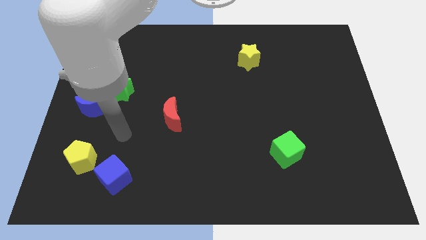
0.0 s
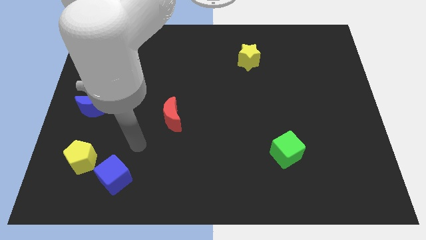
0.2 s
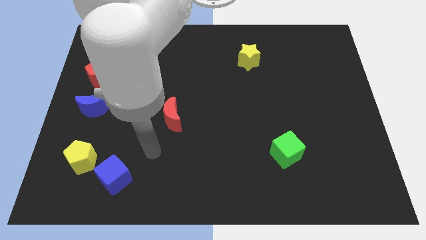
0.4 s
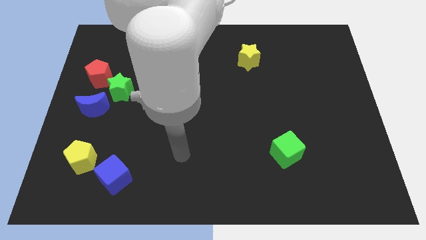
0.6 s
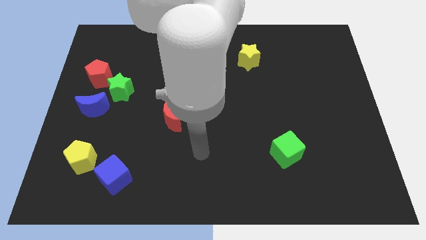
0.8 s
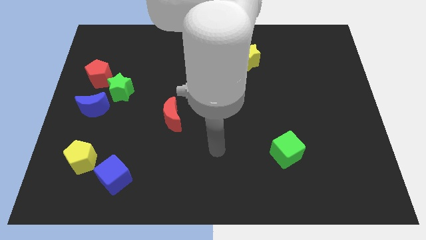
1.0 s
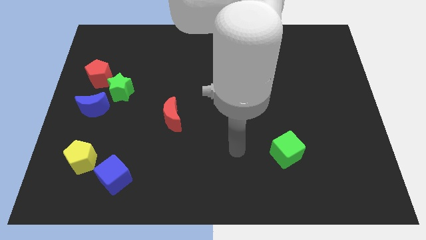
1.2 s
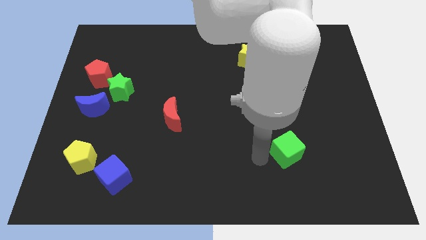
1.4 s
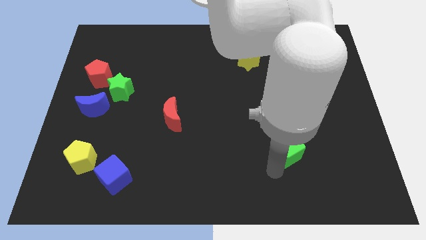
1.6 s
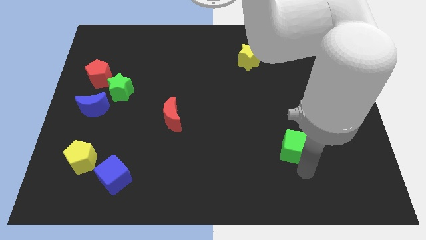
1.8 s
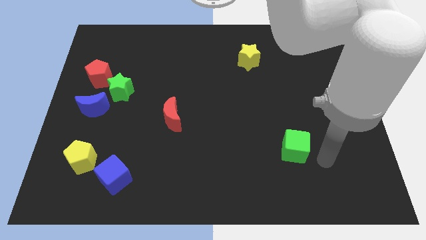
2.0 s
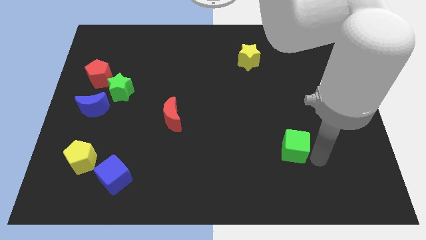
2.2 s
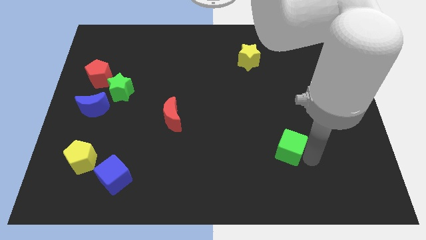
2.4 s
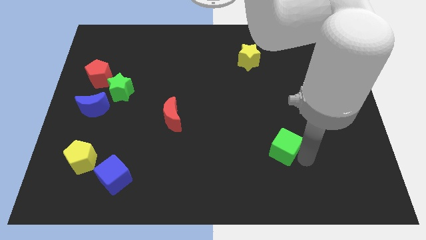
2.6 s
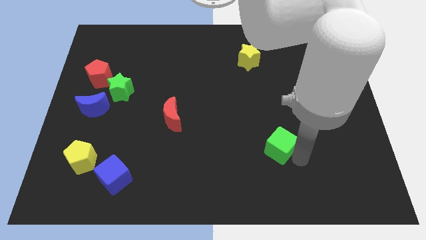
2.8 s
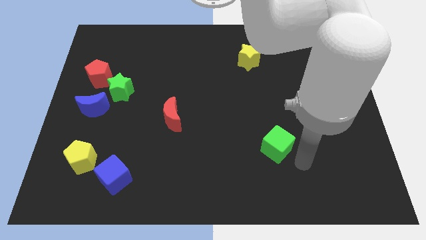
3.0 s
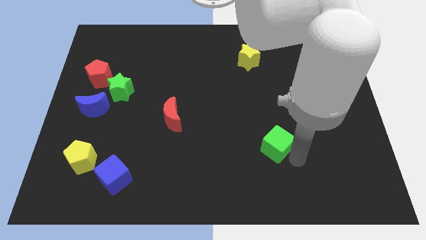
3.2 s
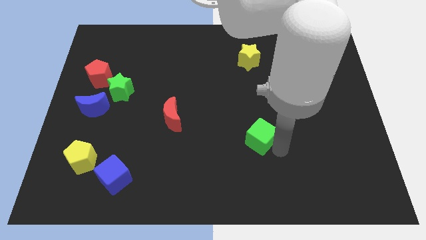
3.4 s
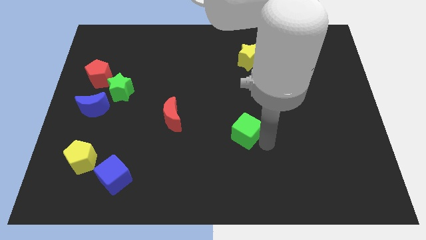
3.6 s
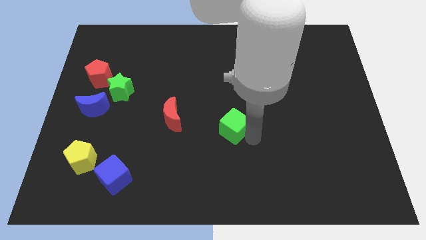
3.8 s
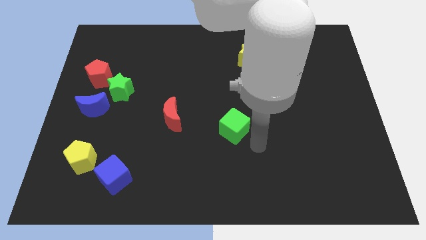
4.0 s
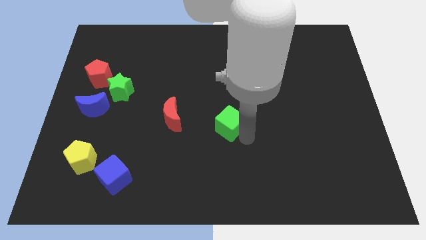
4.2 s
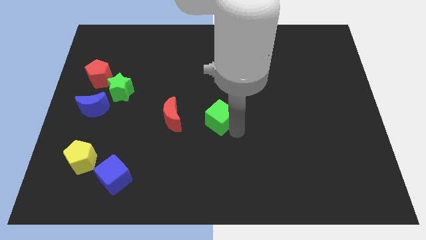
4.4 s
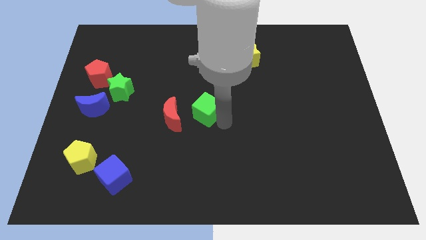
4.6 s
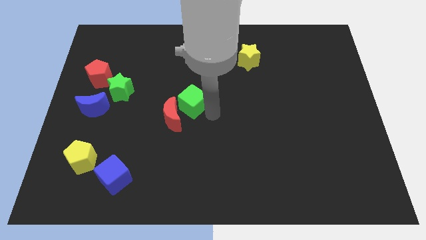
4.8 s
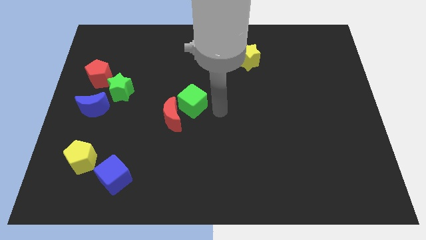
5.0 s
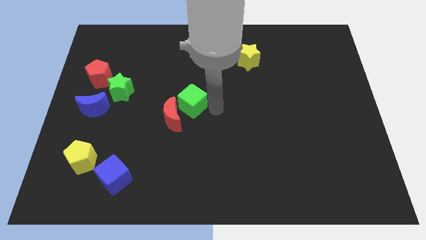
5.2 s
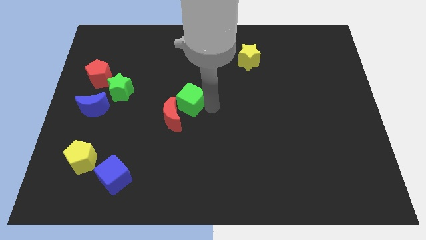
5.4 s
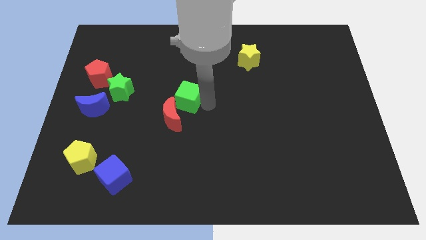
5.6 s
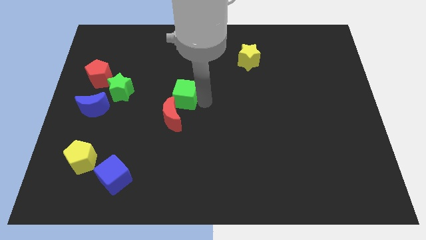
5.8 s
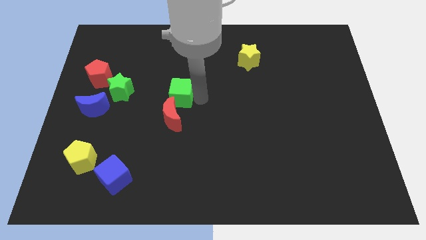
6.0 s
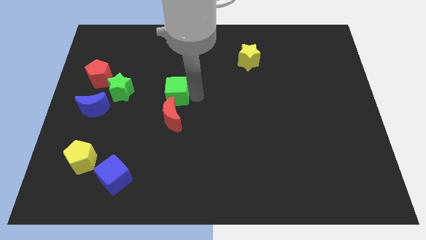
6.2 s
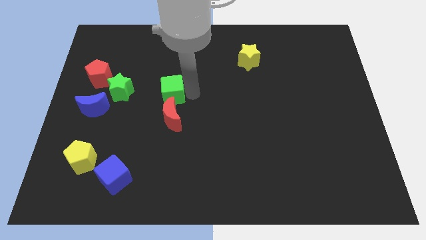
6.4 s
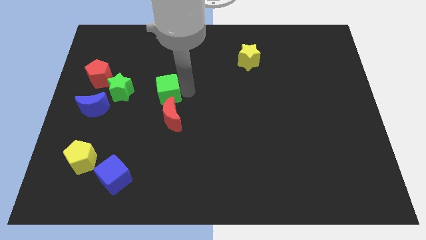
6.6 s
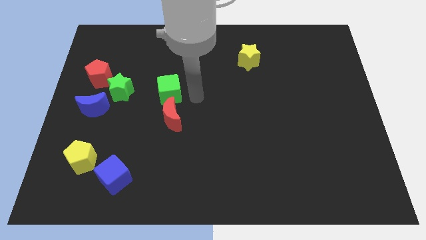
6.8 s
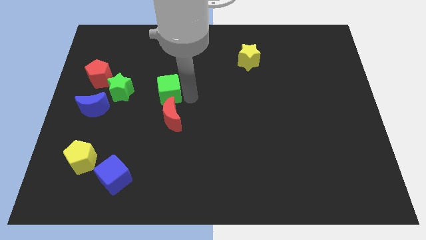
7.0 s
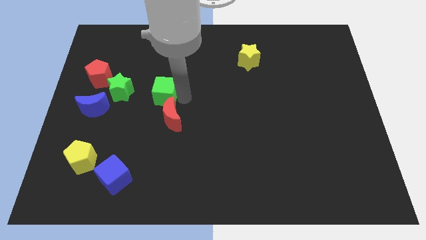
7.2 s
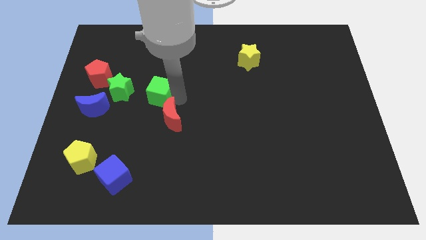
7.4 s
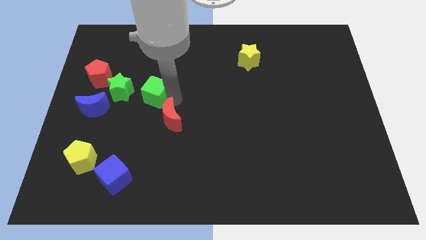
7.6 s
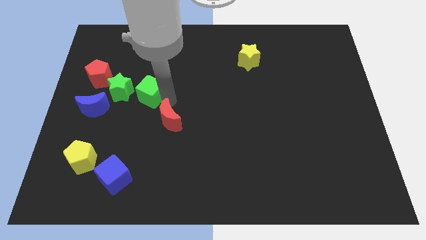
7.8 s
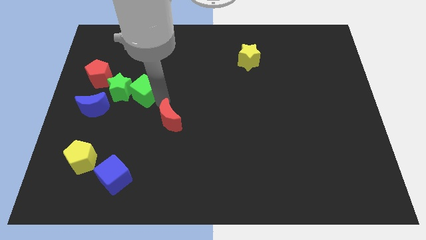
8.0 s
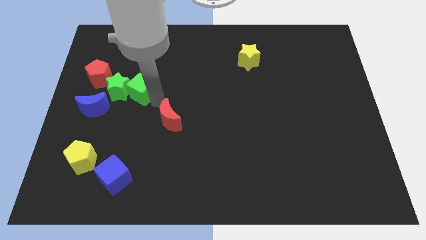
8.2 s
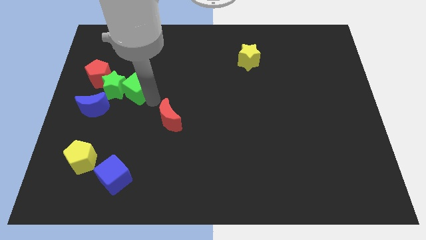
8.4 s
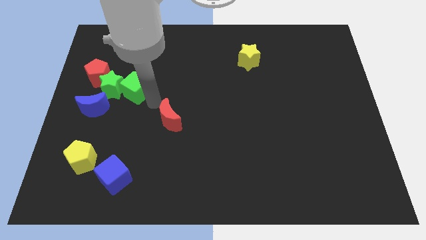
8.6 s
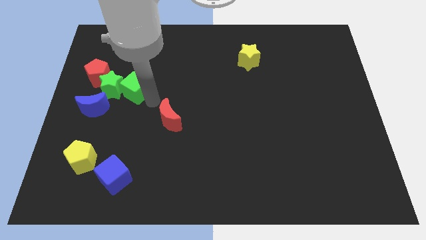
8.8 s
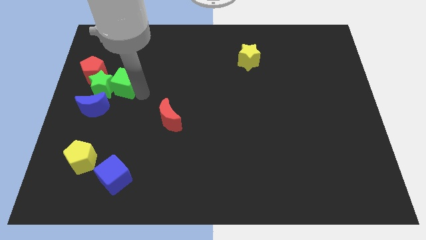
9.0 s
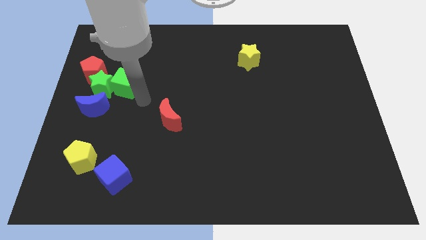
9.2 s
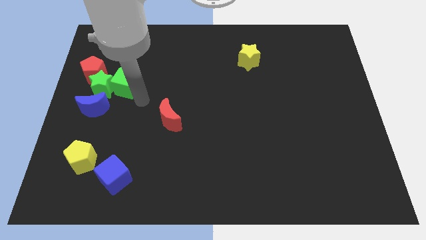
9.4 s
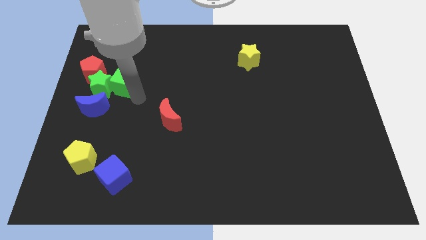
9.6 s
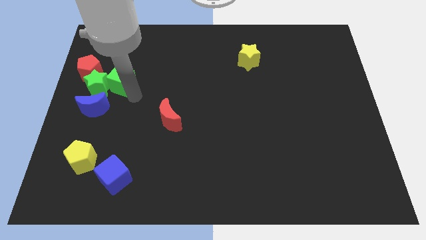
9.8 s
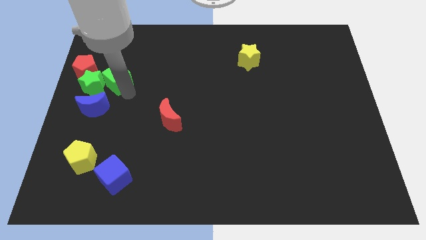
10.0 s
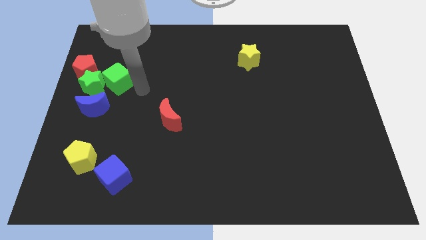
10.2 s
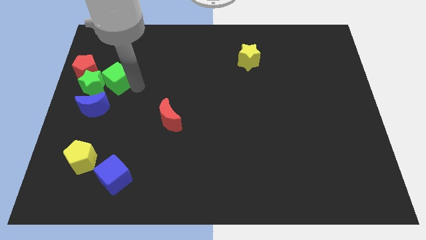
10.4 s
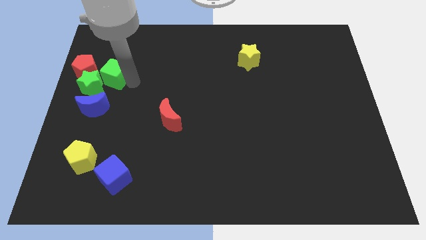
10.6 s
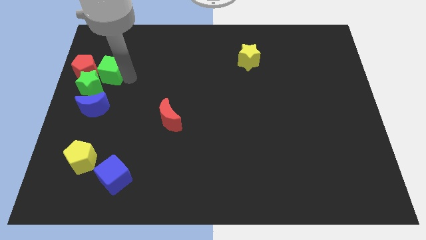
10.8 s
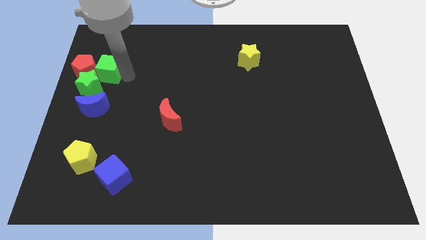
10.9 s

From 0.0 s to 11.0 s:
push the green cube to the red pentagon

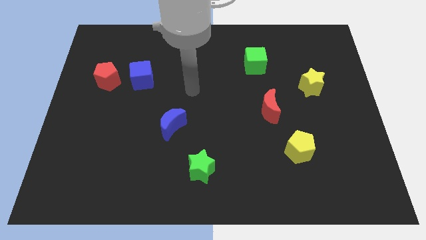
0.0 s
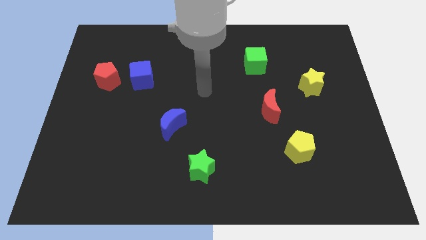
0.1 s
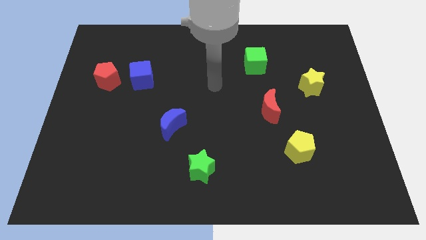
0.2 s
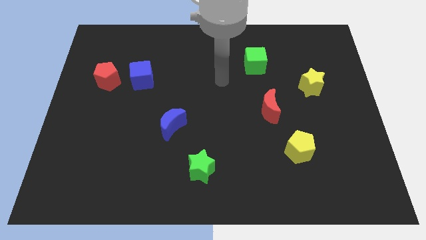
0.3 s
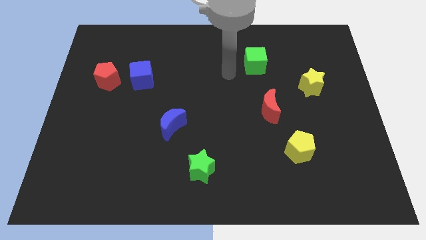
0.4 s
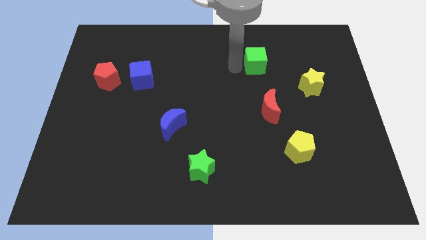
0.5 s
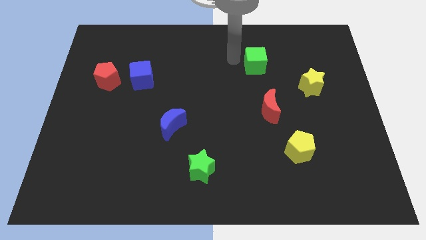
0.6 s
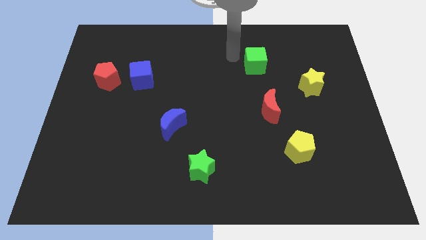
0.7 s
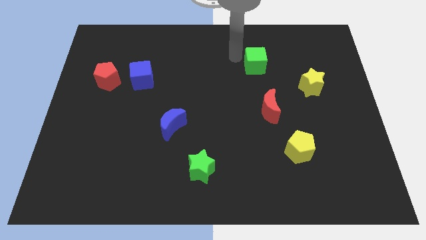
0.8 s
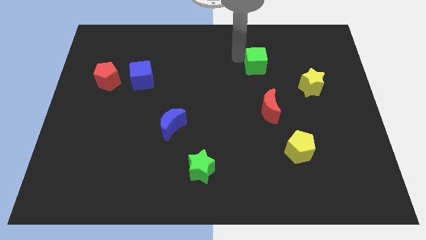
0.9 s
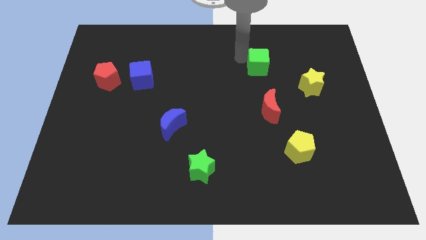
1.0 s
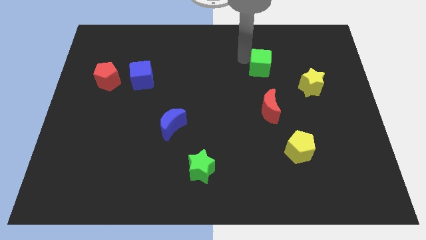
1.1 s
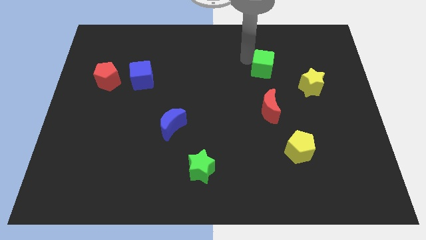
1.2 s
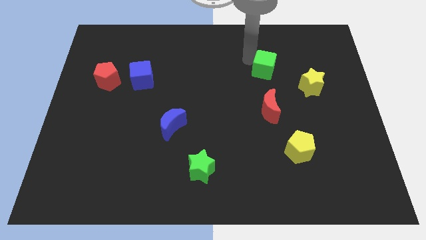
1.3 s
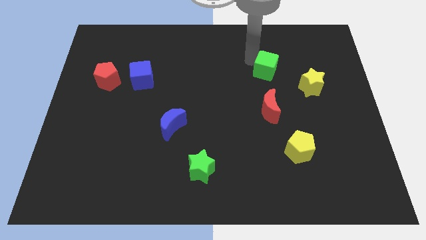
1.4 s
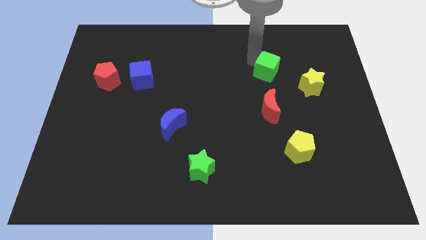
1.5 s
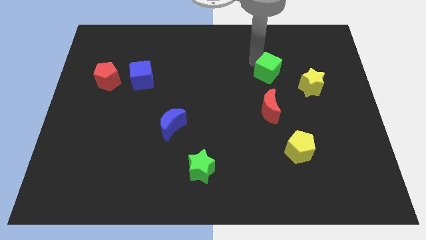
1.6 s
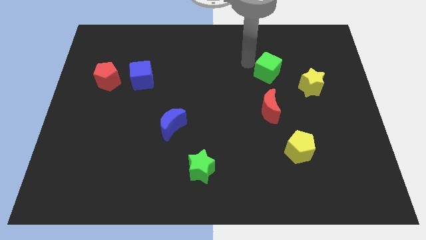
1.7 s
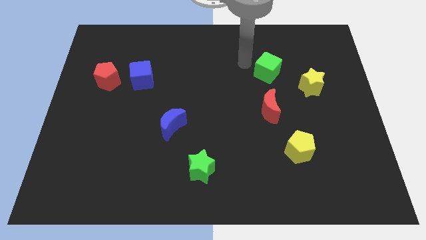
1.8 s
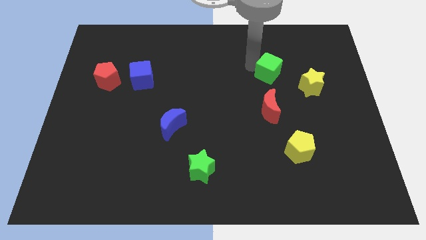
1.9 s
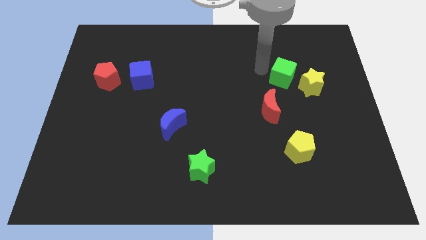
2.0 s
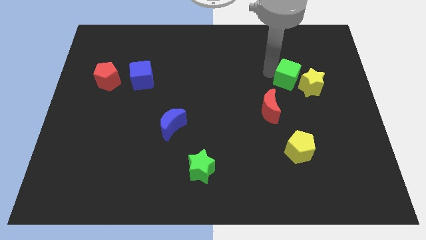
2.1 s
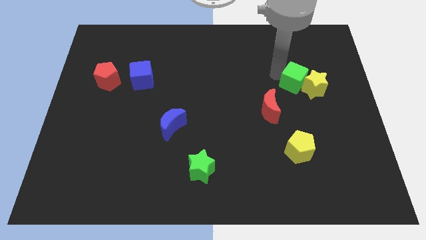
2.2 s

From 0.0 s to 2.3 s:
push the green cube close to the yellow star
